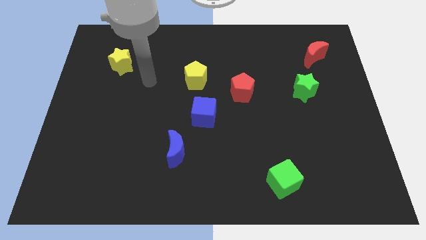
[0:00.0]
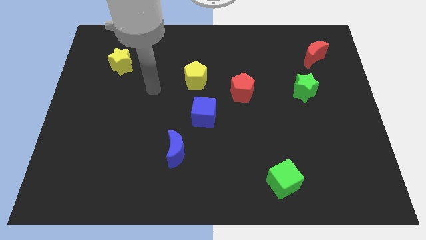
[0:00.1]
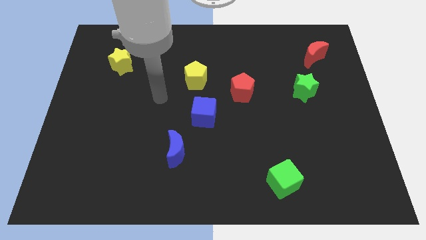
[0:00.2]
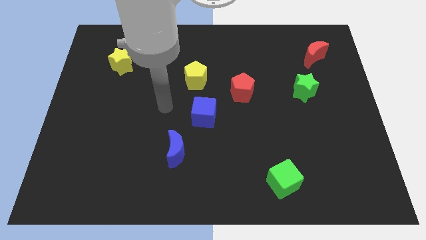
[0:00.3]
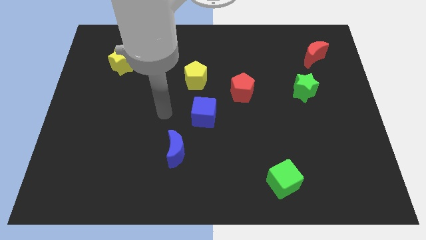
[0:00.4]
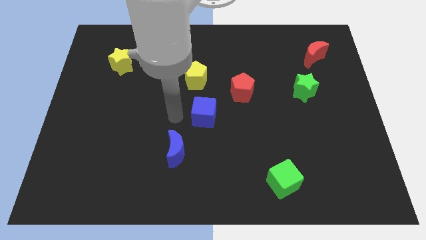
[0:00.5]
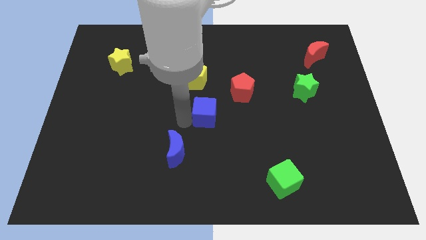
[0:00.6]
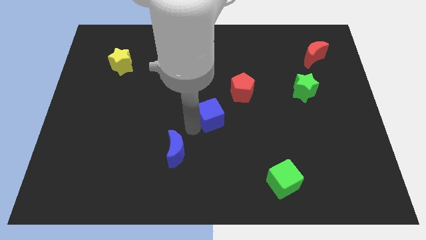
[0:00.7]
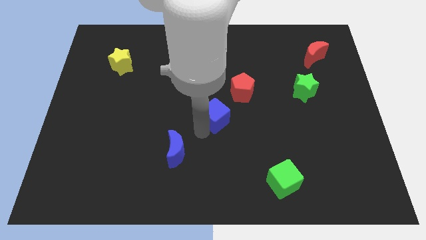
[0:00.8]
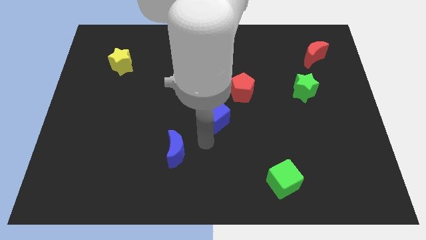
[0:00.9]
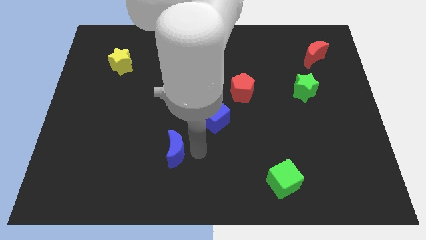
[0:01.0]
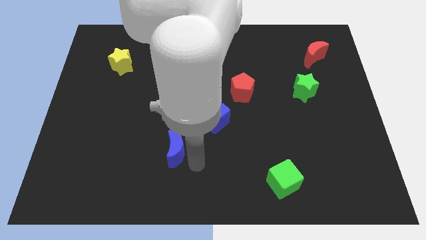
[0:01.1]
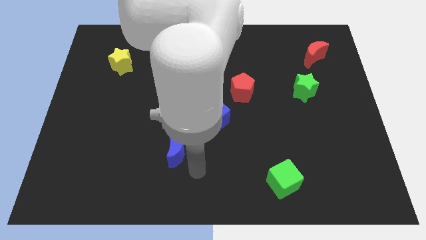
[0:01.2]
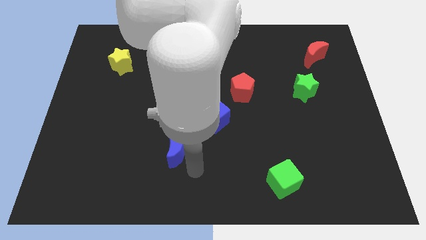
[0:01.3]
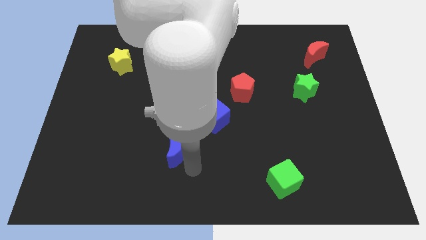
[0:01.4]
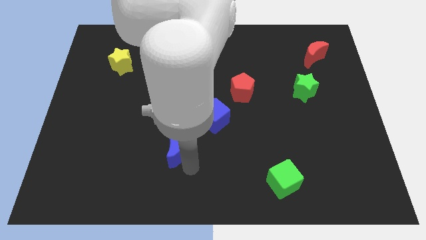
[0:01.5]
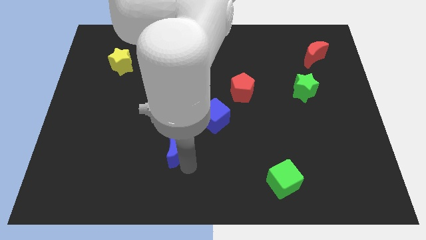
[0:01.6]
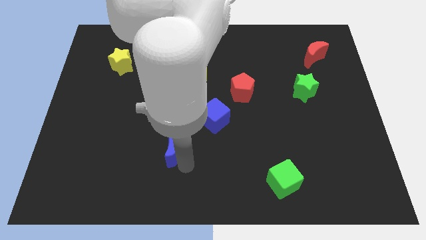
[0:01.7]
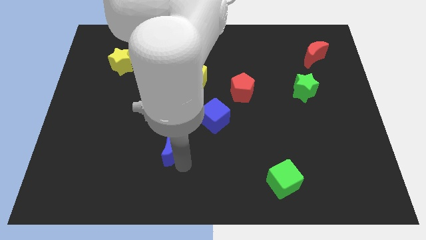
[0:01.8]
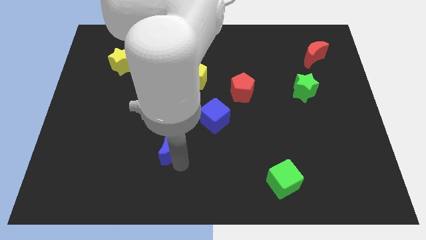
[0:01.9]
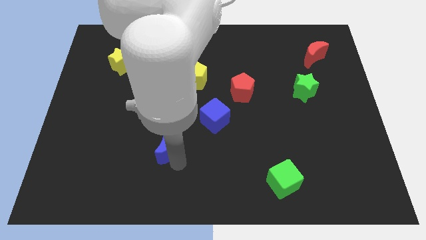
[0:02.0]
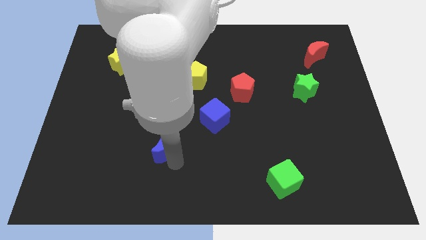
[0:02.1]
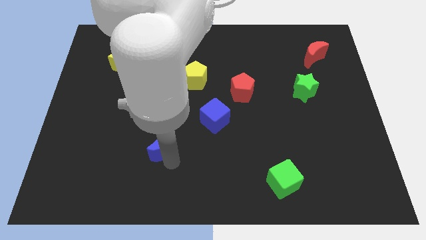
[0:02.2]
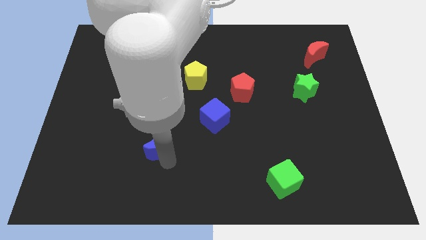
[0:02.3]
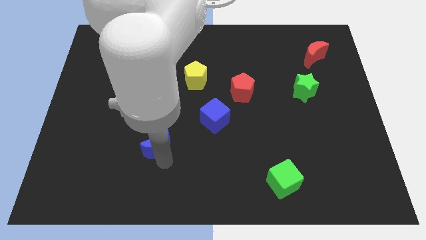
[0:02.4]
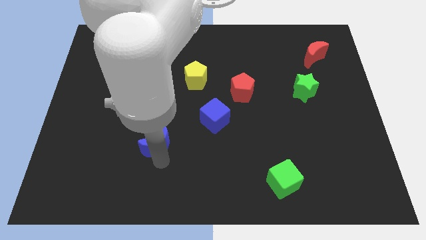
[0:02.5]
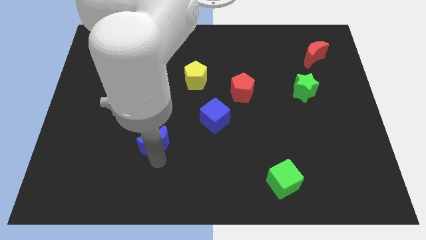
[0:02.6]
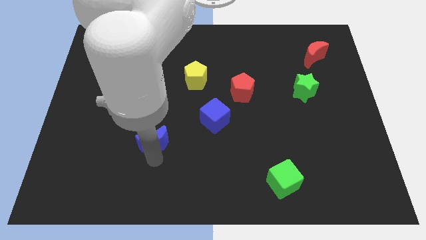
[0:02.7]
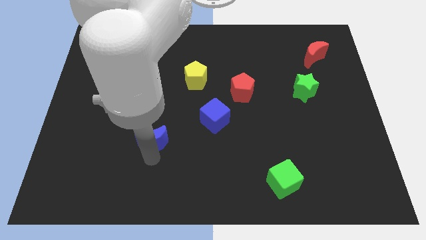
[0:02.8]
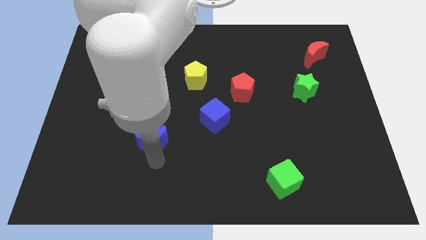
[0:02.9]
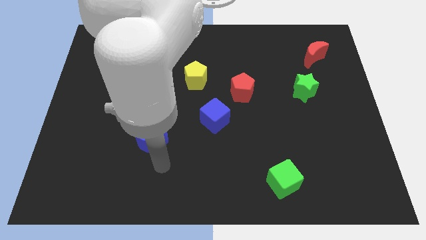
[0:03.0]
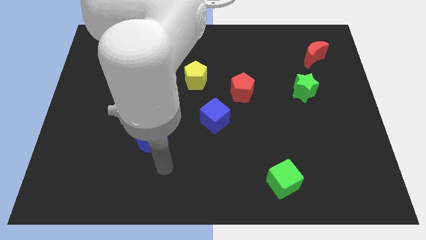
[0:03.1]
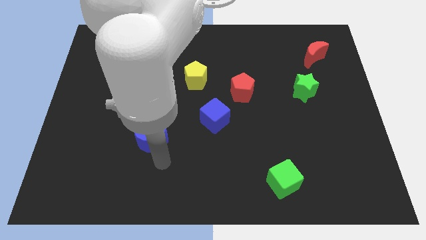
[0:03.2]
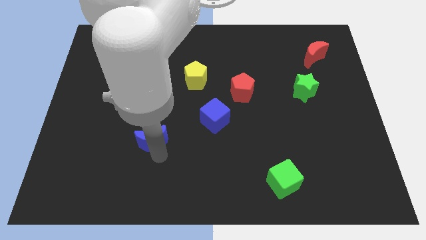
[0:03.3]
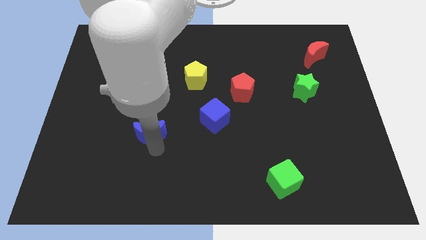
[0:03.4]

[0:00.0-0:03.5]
push the blue moon diagonally up and left a little bit

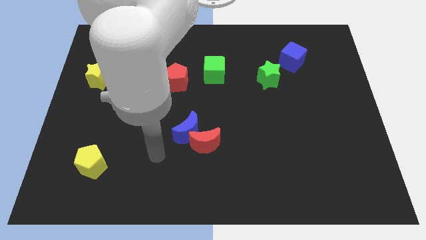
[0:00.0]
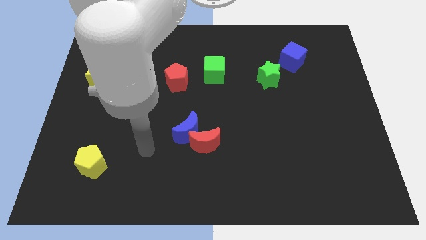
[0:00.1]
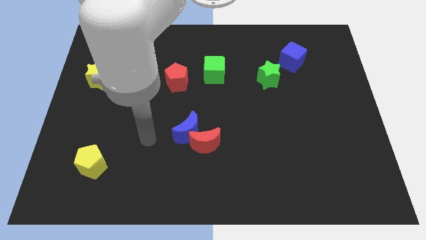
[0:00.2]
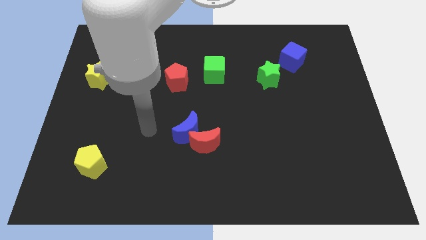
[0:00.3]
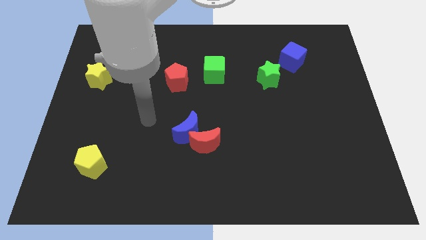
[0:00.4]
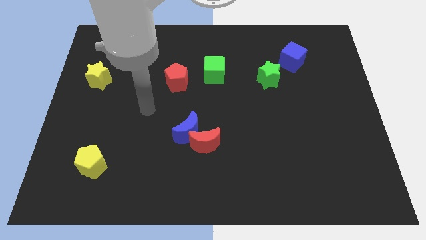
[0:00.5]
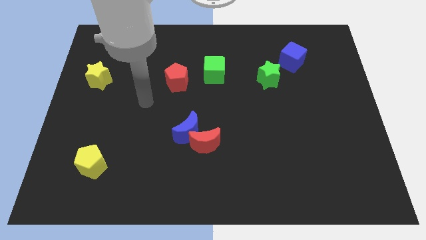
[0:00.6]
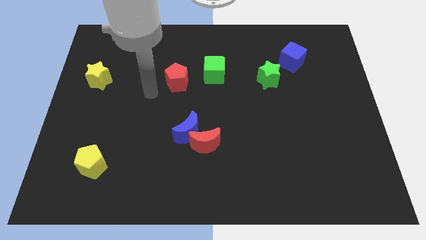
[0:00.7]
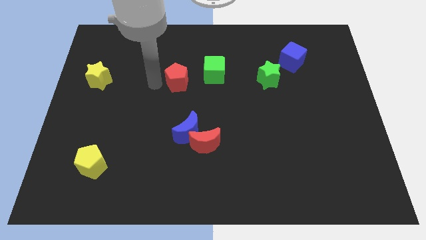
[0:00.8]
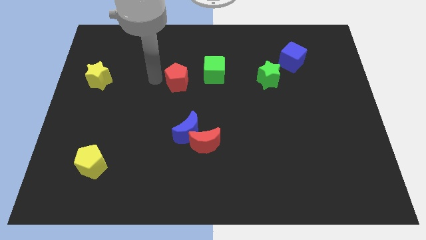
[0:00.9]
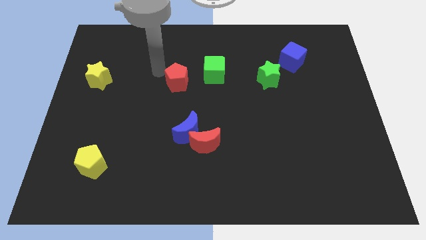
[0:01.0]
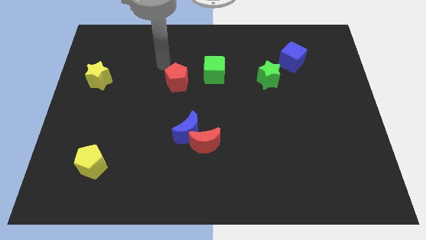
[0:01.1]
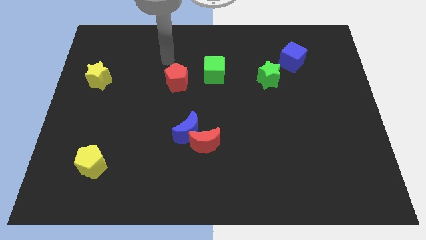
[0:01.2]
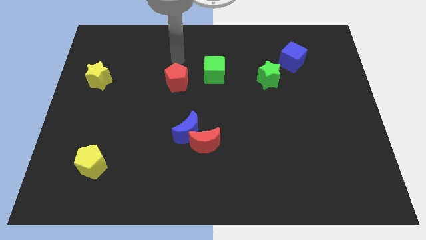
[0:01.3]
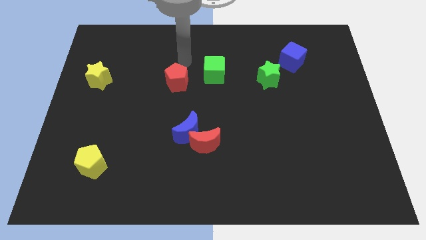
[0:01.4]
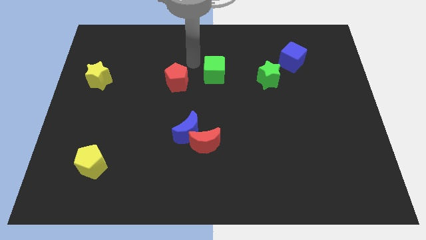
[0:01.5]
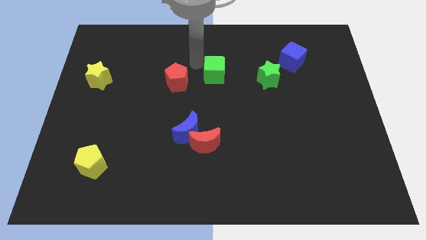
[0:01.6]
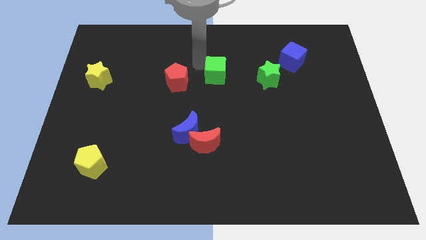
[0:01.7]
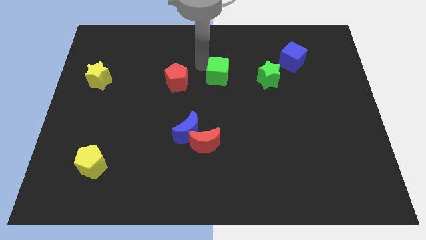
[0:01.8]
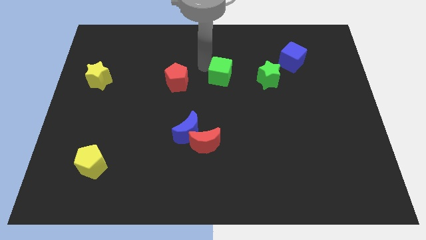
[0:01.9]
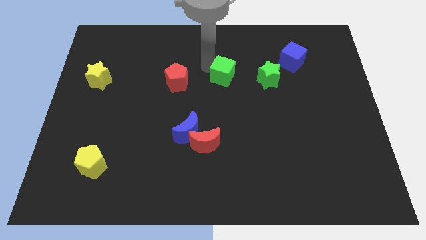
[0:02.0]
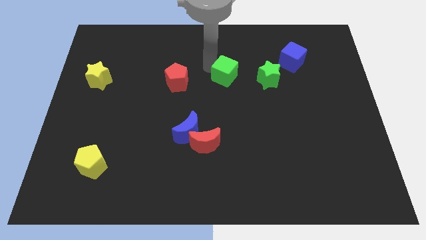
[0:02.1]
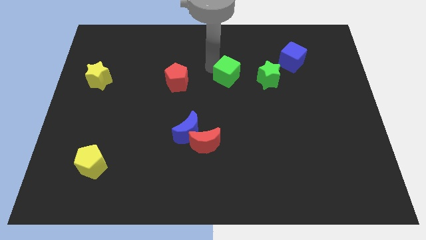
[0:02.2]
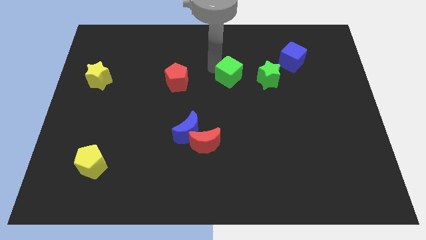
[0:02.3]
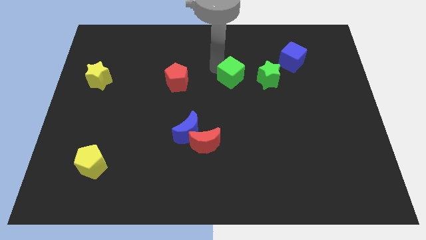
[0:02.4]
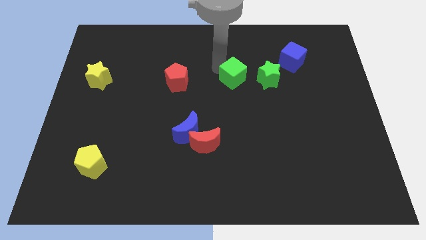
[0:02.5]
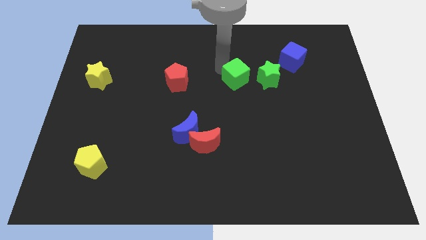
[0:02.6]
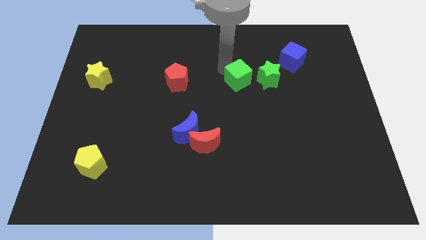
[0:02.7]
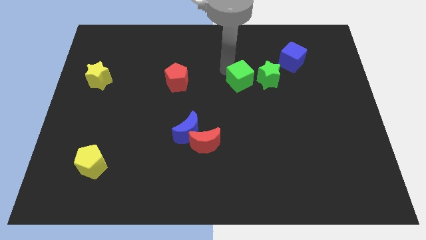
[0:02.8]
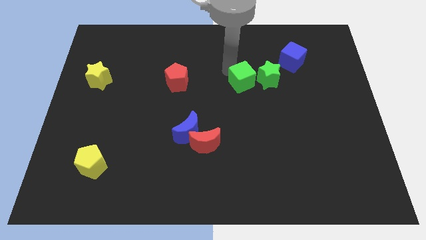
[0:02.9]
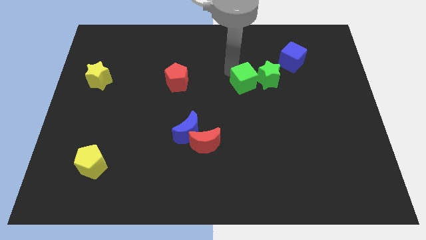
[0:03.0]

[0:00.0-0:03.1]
slightly push the green cube down and right

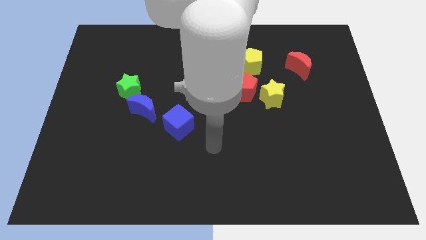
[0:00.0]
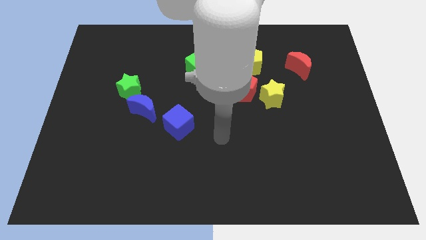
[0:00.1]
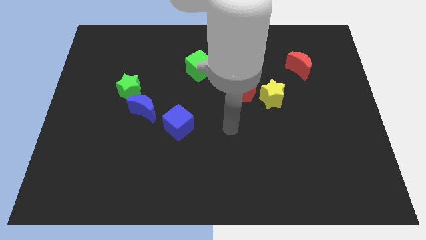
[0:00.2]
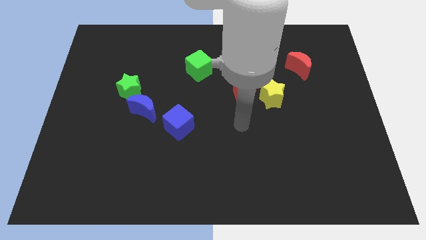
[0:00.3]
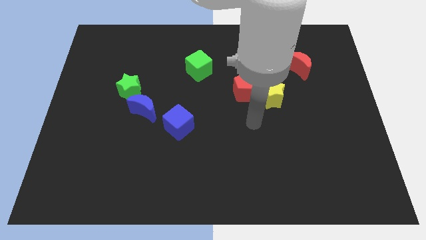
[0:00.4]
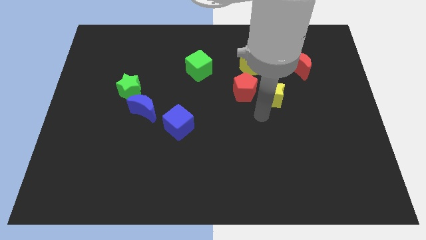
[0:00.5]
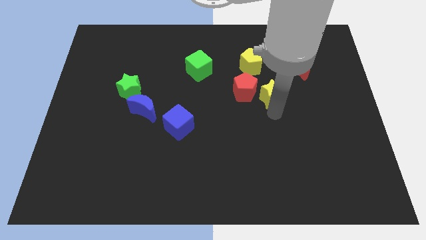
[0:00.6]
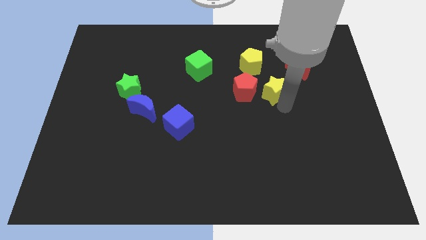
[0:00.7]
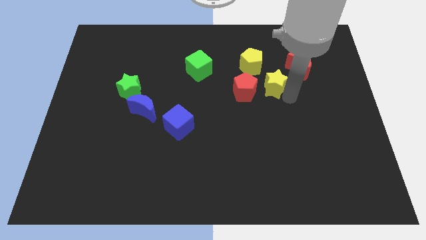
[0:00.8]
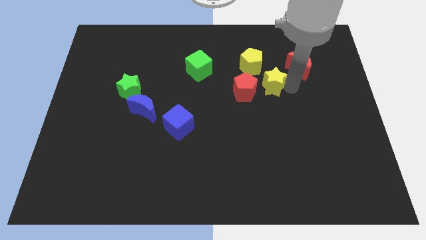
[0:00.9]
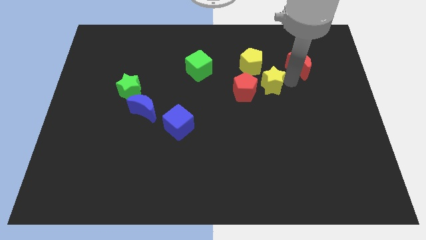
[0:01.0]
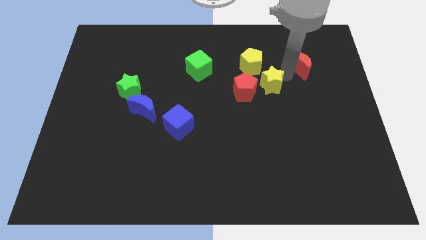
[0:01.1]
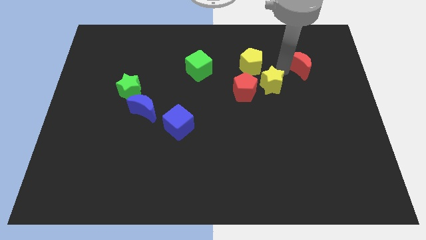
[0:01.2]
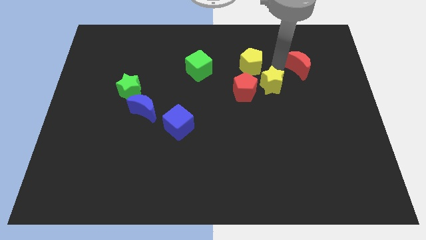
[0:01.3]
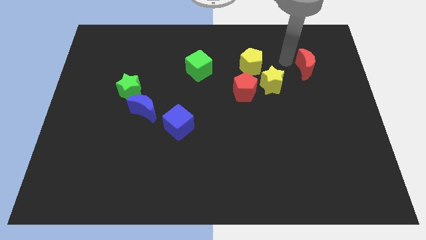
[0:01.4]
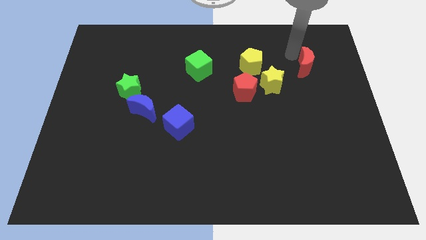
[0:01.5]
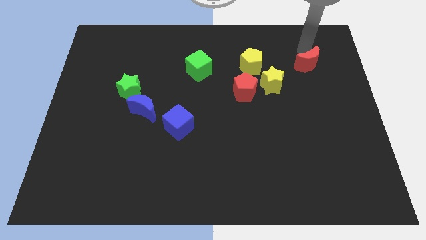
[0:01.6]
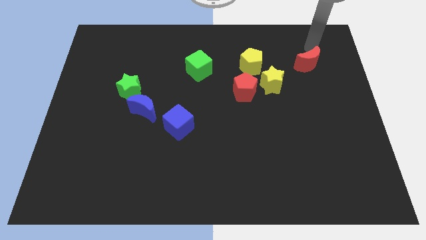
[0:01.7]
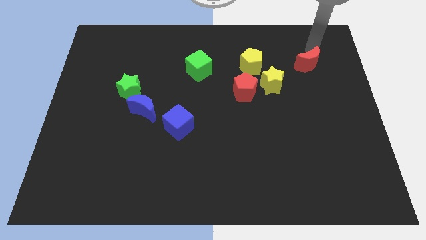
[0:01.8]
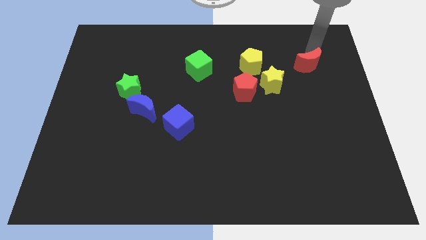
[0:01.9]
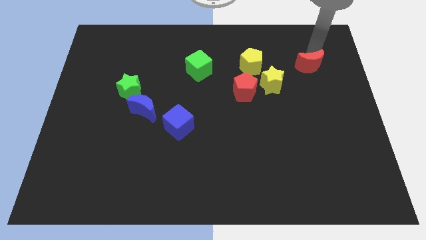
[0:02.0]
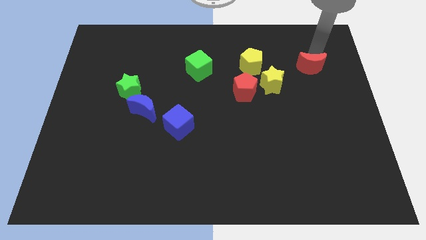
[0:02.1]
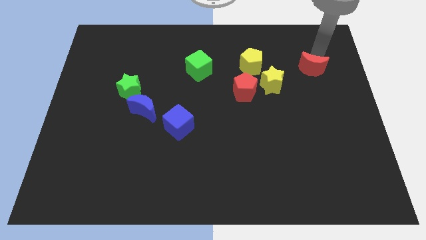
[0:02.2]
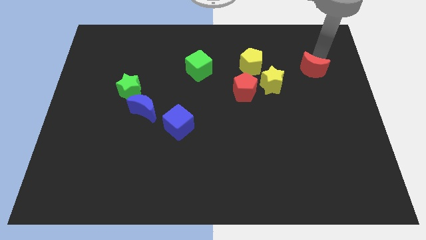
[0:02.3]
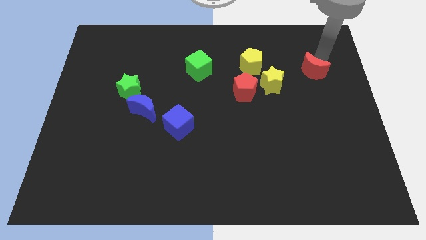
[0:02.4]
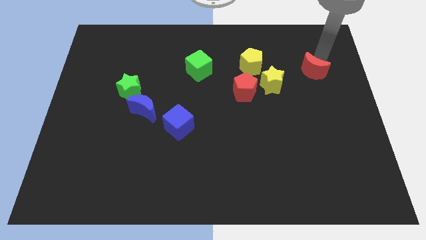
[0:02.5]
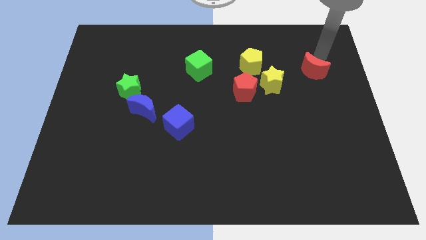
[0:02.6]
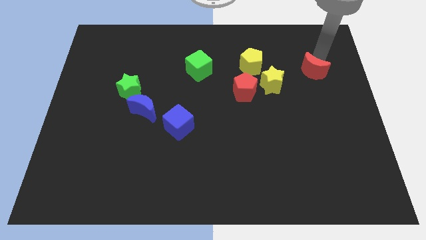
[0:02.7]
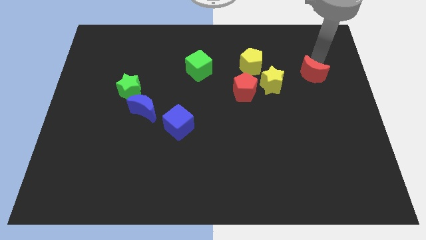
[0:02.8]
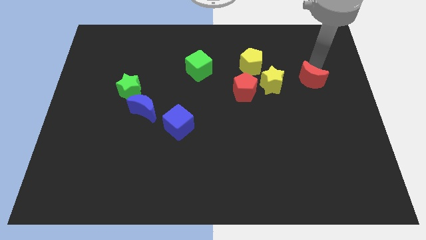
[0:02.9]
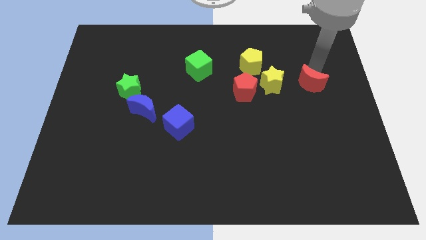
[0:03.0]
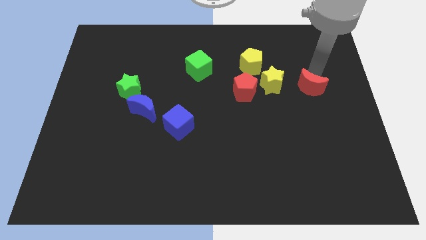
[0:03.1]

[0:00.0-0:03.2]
slightly slide the red moon down
